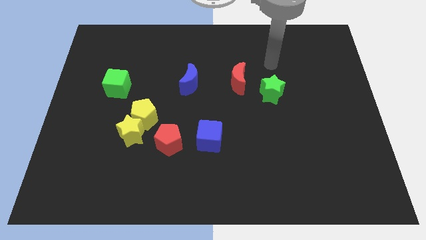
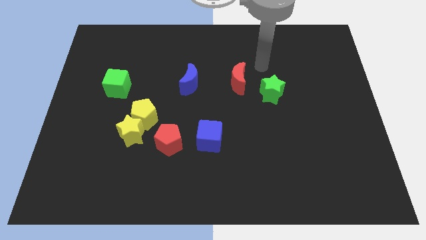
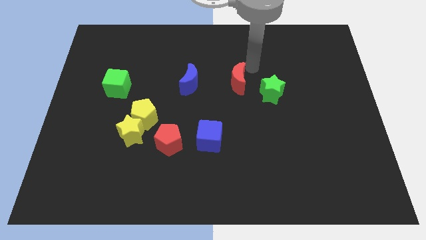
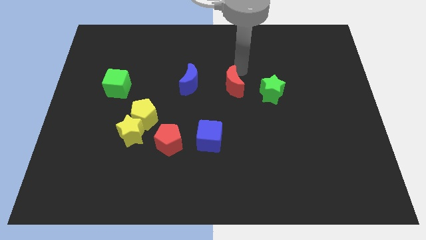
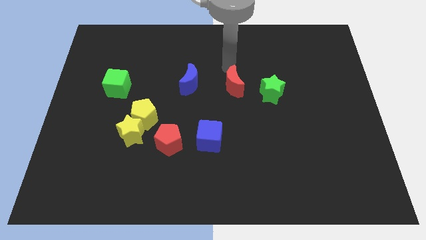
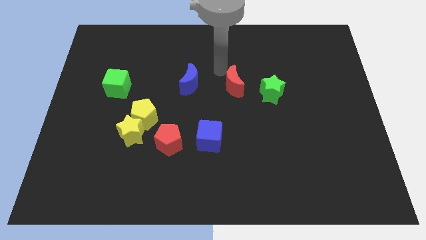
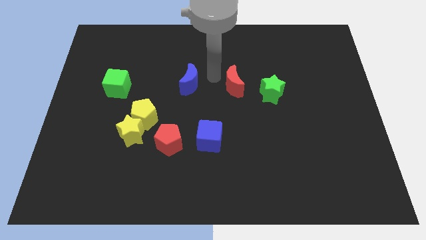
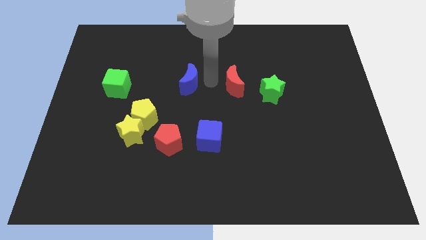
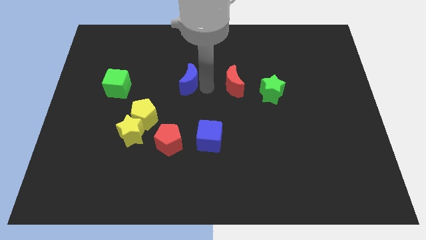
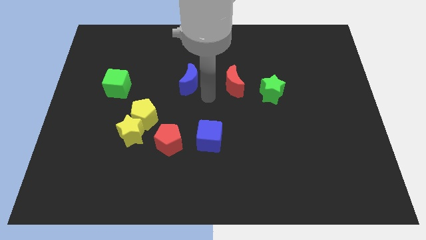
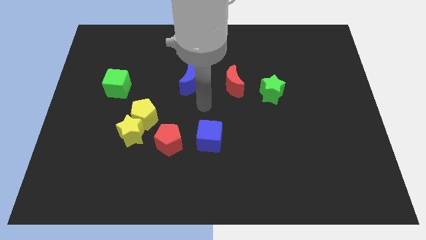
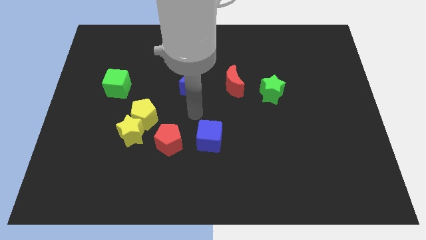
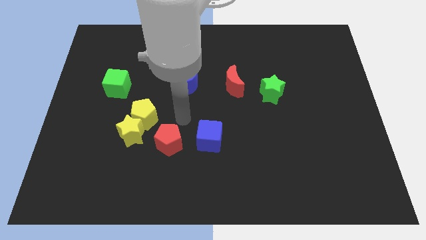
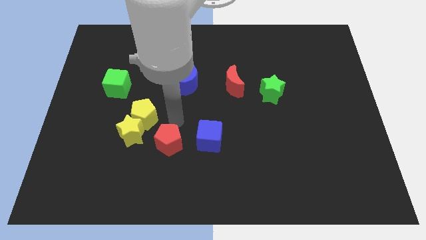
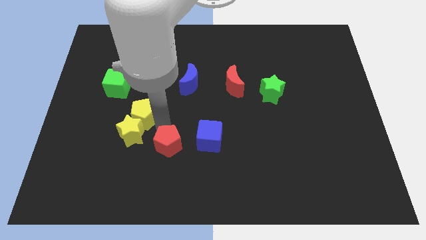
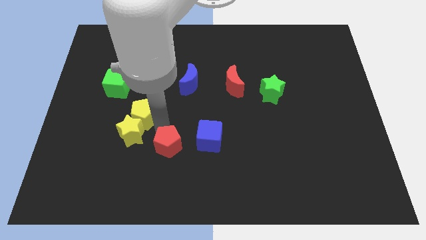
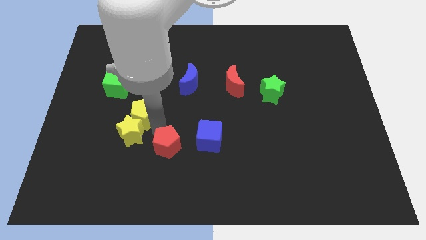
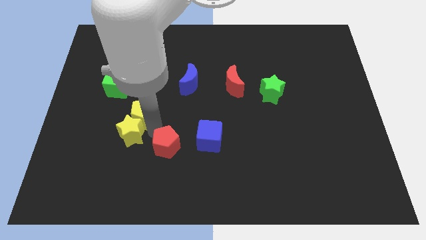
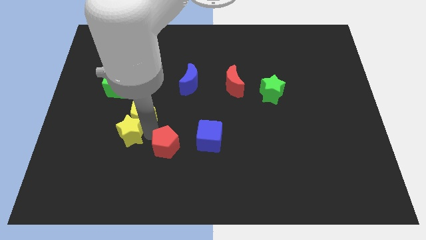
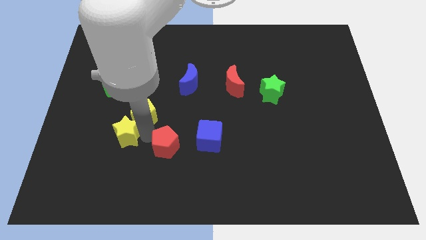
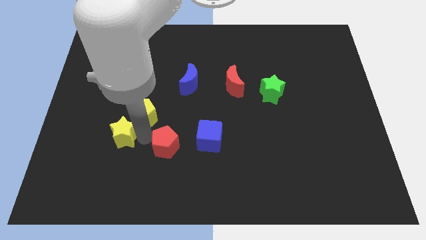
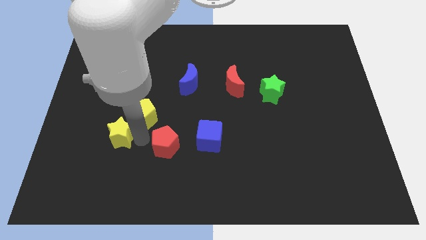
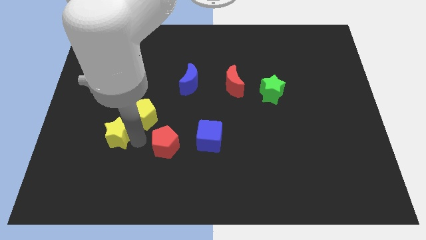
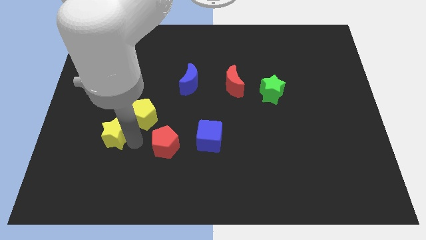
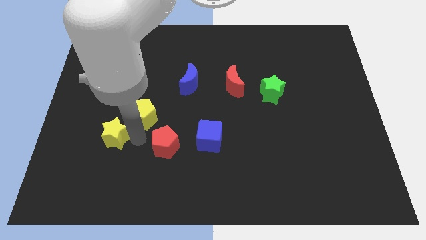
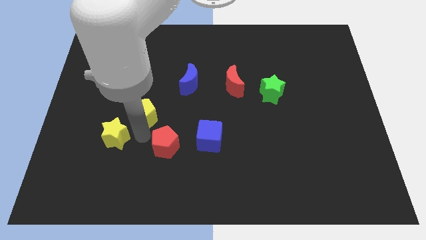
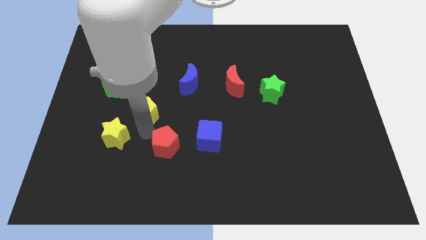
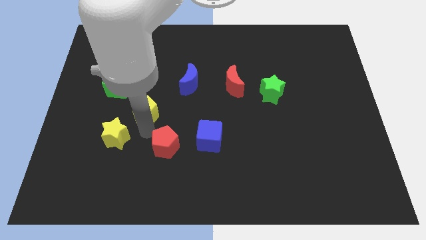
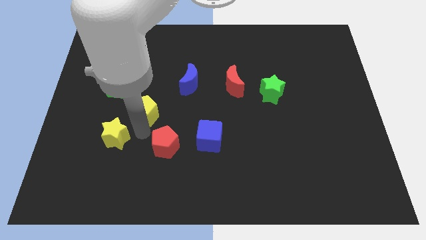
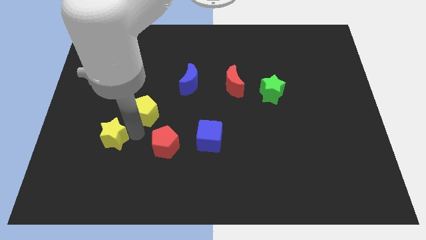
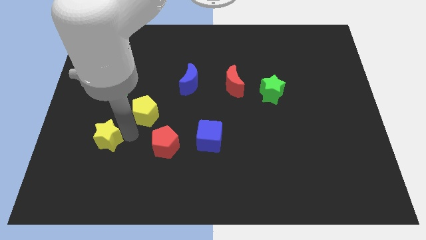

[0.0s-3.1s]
separate the yellow star from the yellow pentagon and red pentagon

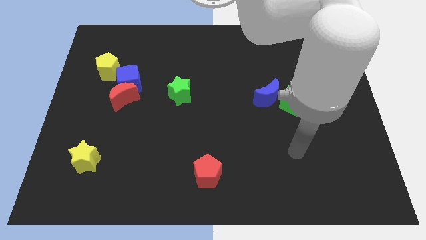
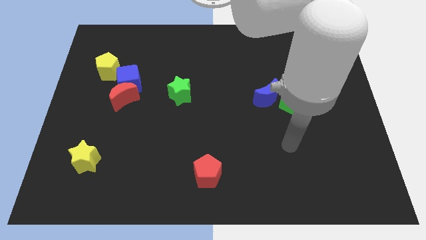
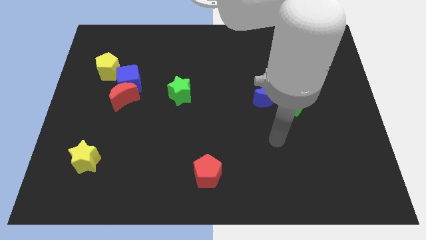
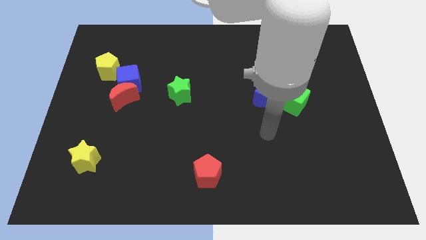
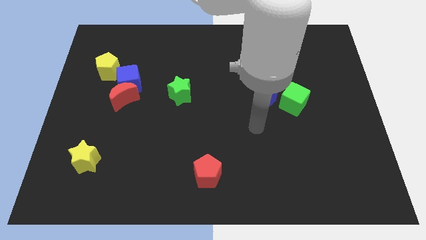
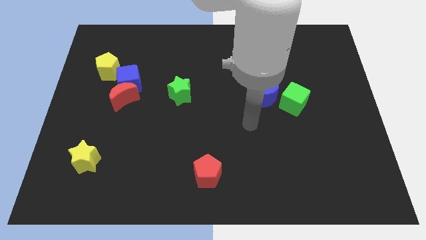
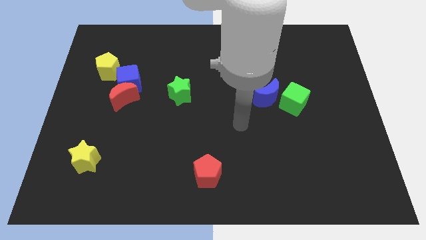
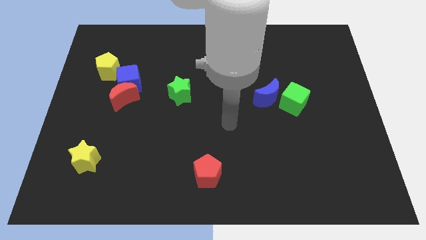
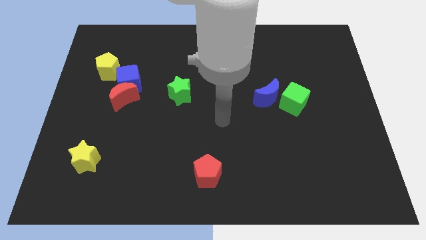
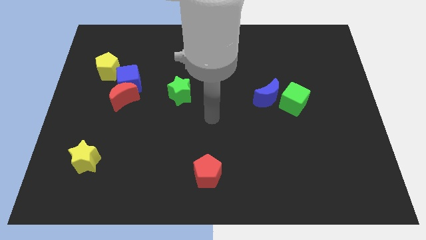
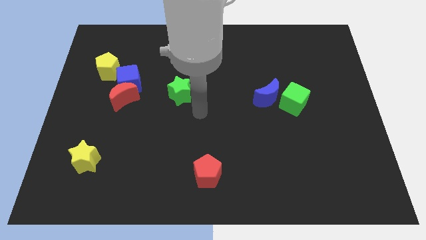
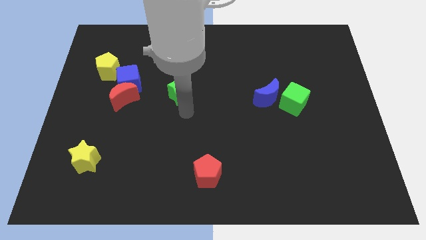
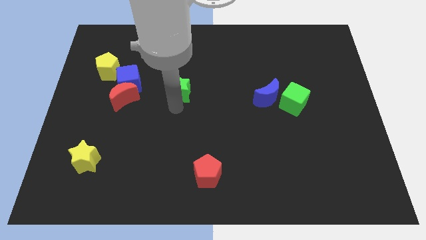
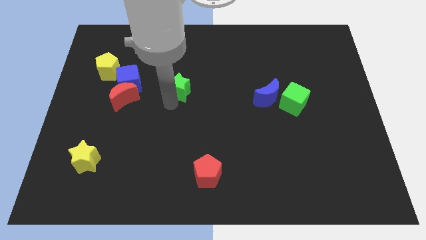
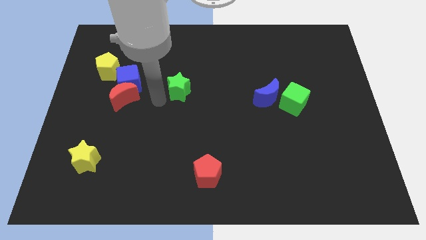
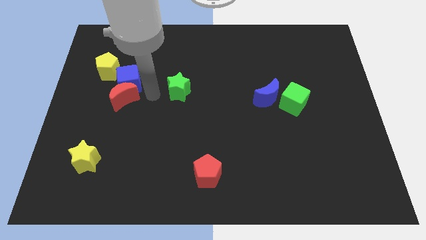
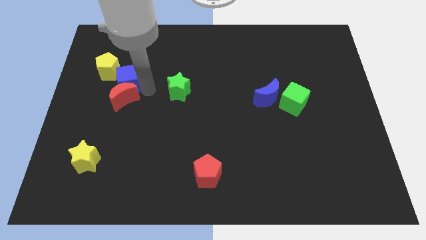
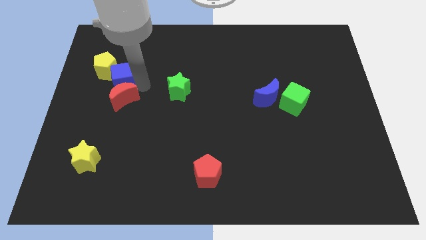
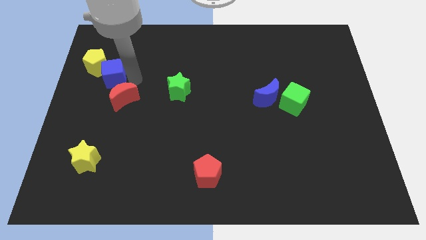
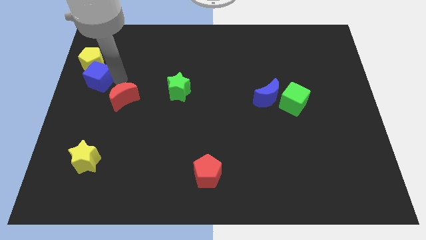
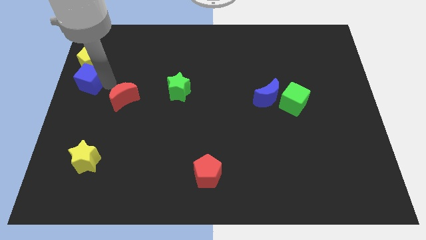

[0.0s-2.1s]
move the red moon away from the blue cube

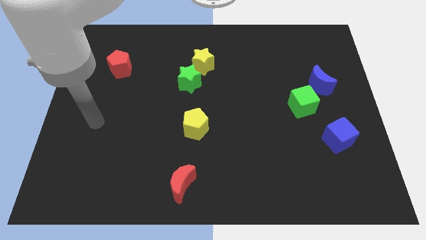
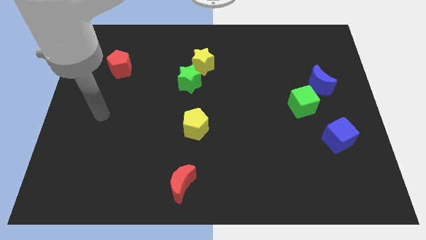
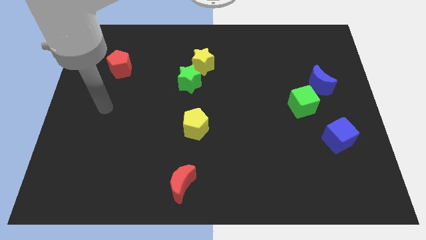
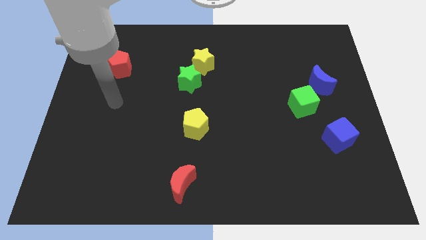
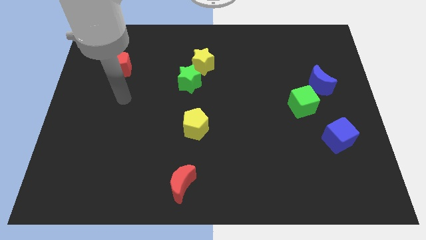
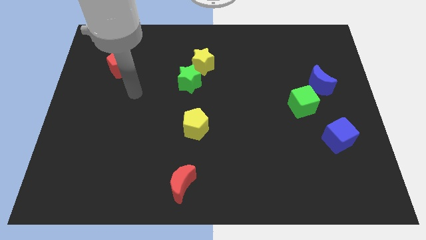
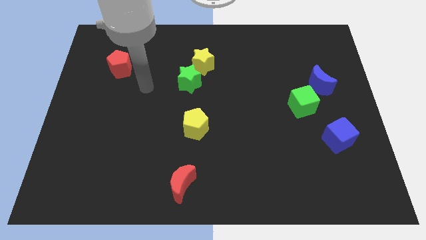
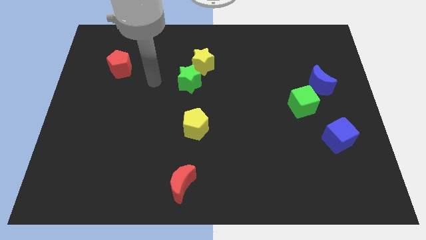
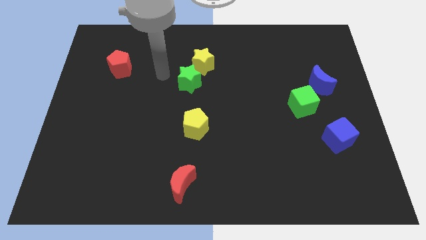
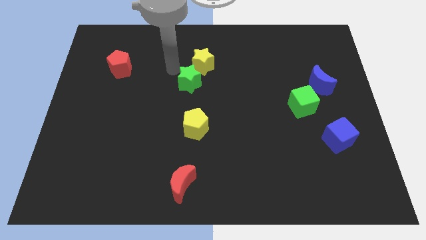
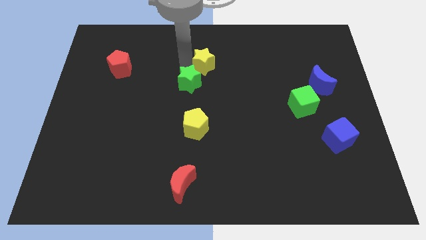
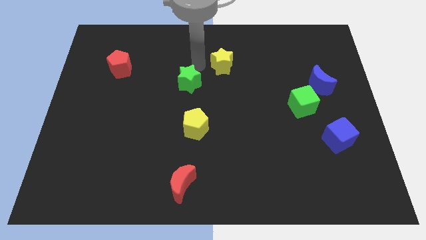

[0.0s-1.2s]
move the green star away from the yellow star

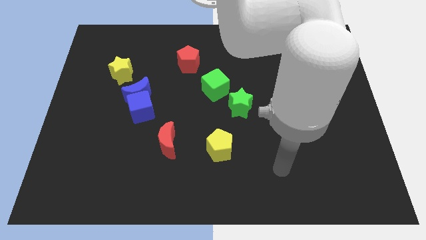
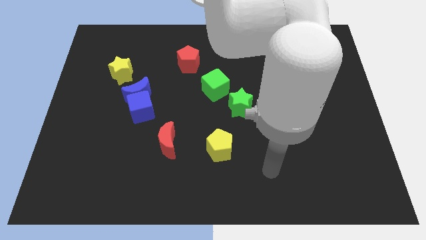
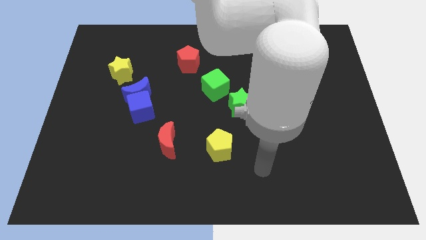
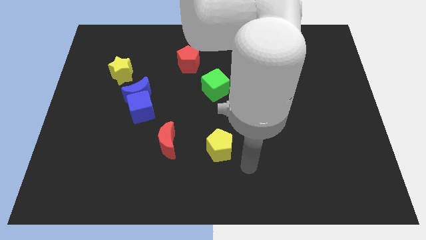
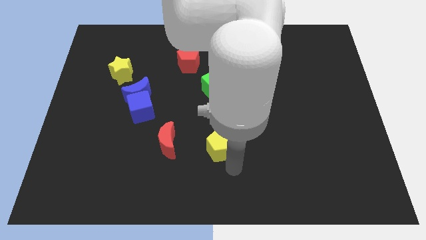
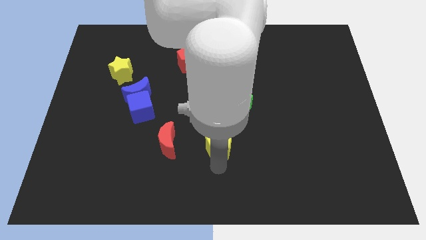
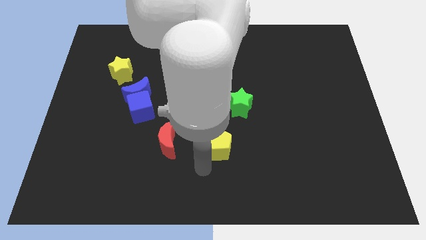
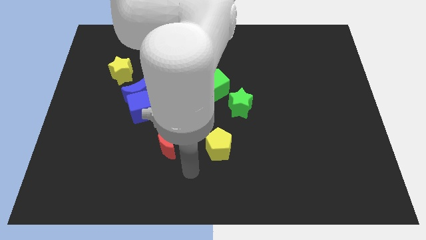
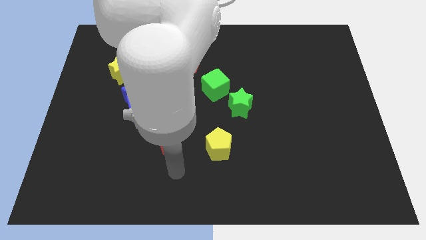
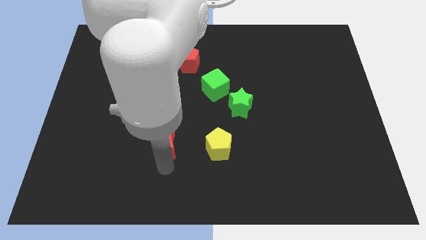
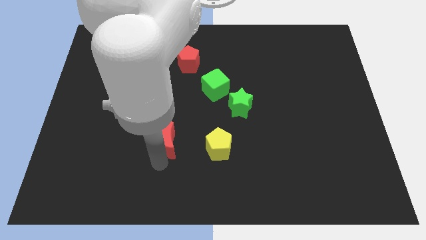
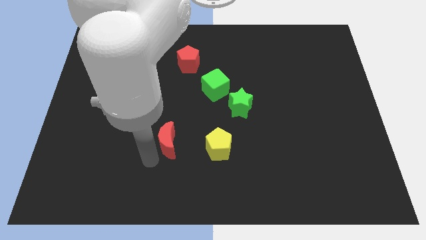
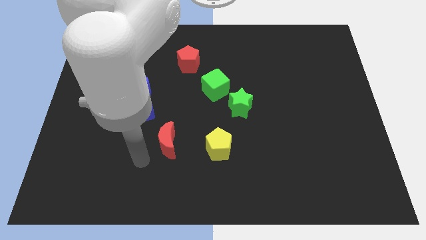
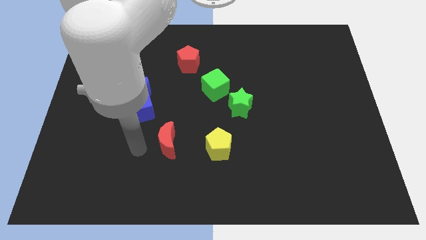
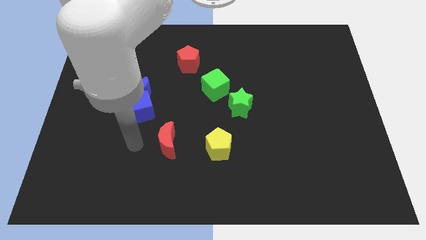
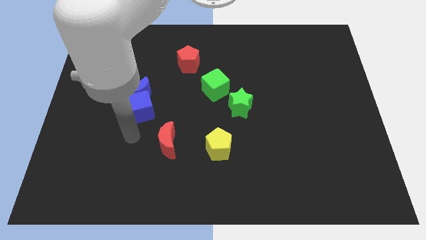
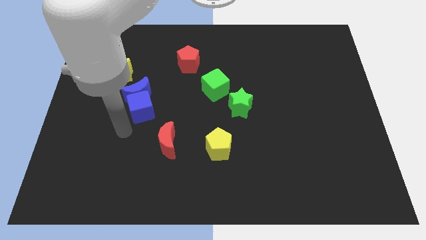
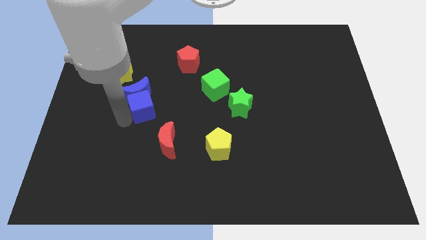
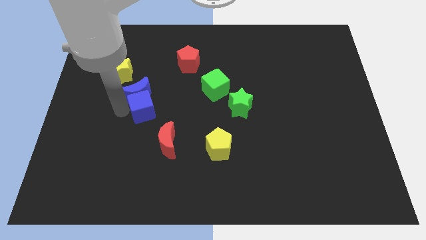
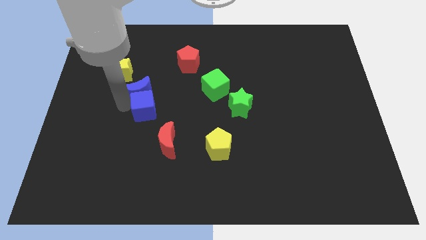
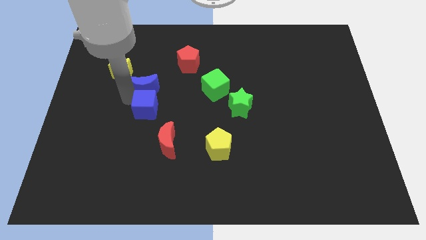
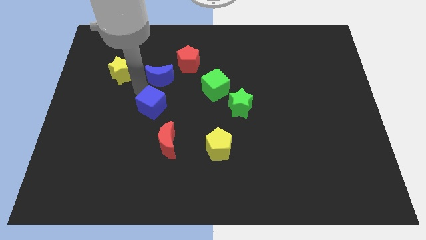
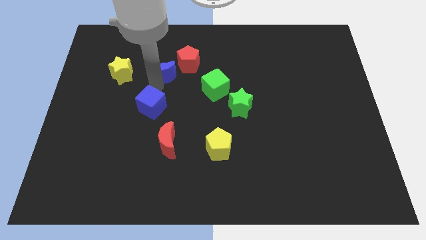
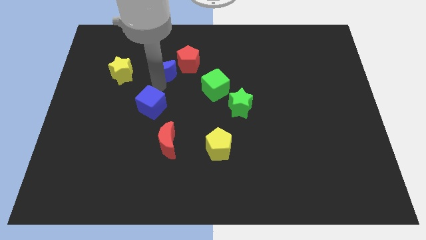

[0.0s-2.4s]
pull the blue cube apart from the blue moon

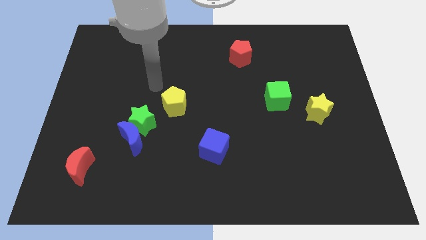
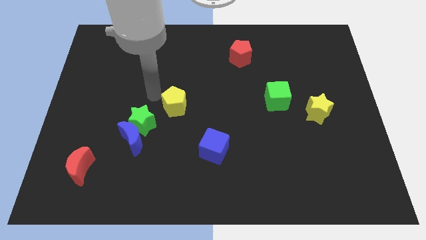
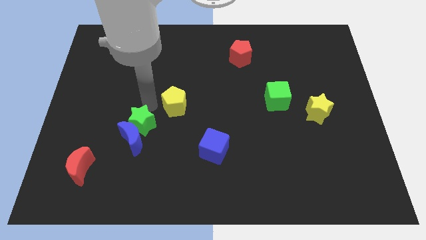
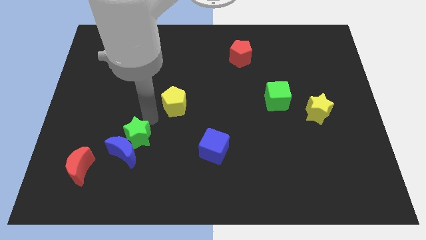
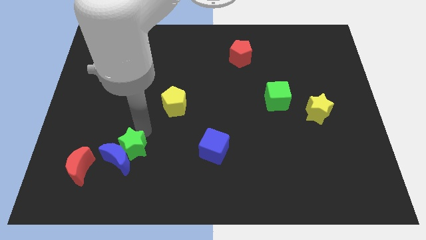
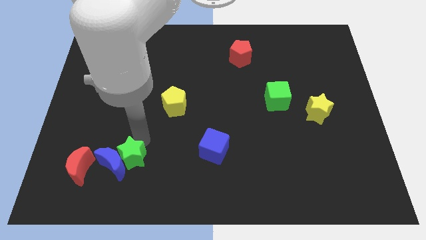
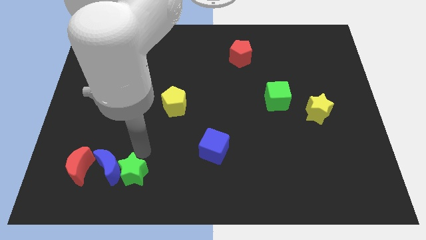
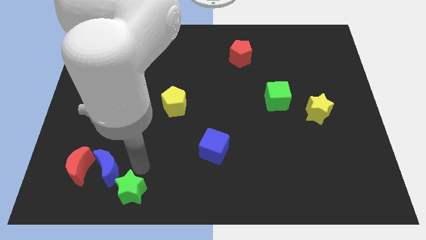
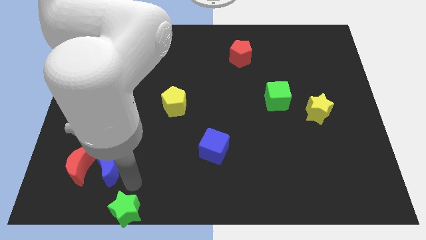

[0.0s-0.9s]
separate the blue moon from the green star
